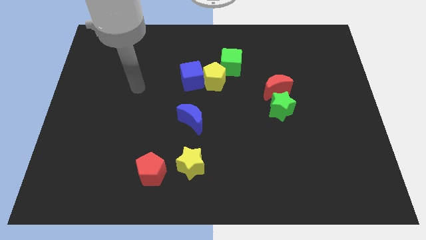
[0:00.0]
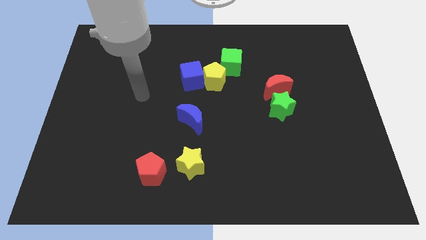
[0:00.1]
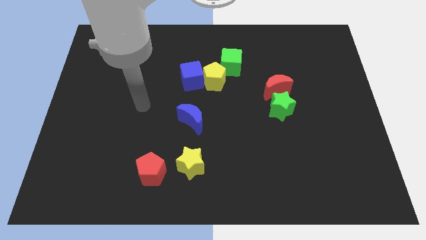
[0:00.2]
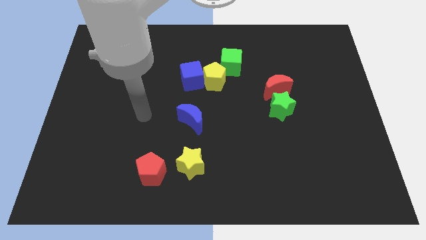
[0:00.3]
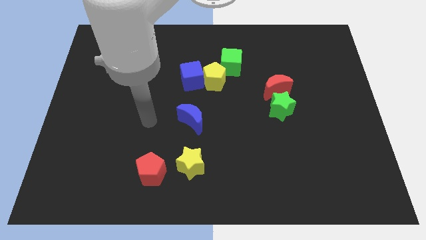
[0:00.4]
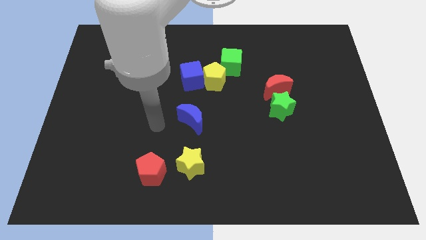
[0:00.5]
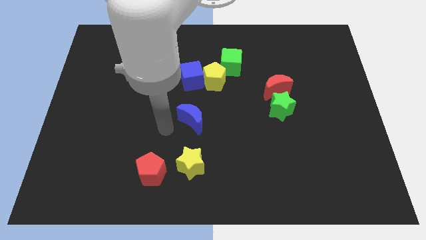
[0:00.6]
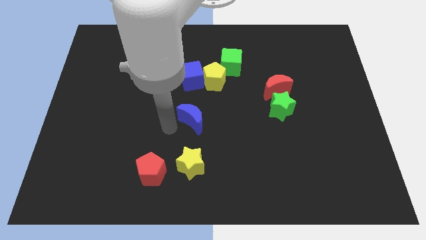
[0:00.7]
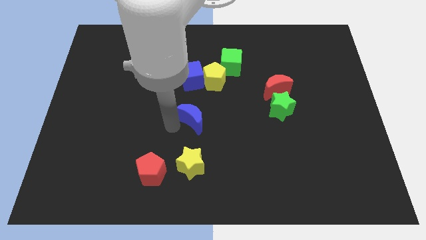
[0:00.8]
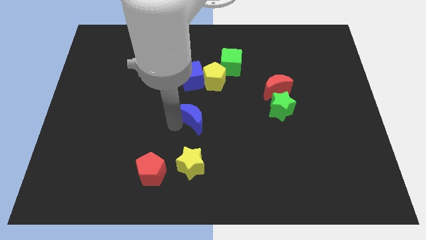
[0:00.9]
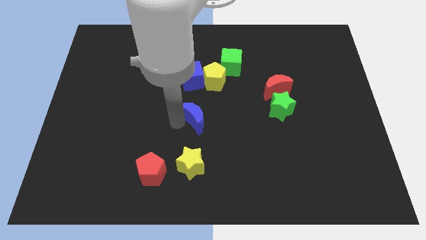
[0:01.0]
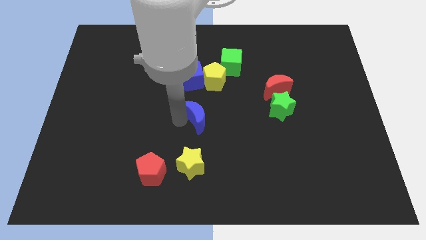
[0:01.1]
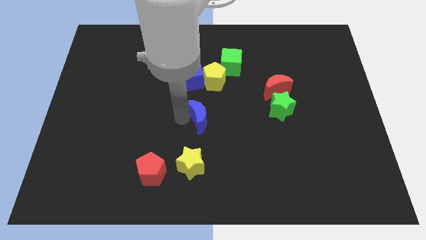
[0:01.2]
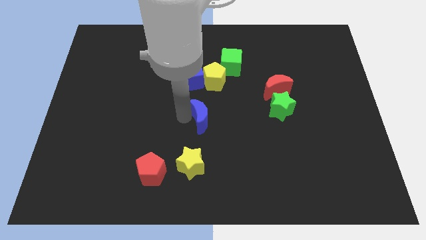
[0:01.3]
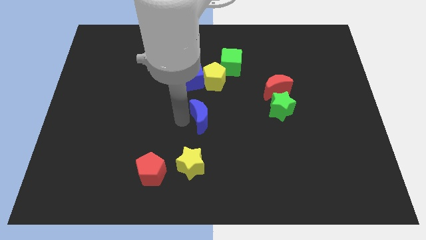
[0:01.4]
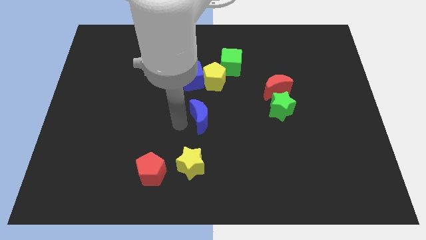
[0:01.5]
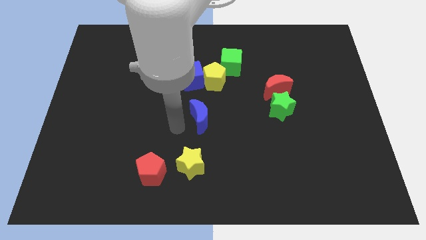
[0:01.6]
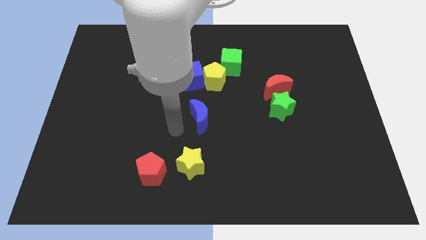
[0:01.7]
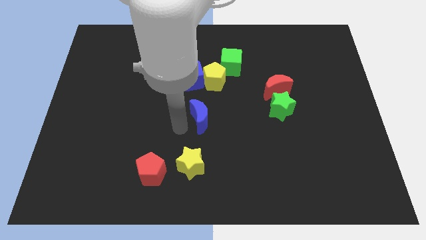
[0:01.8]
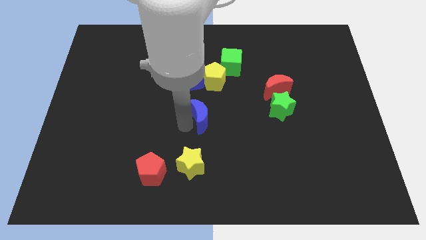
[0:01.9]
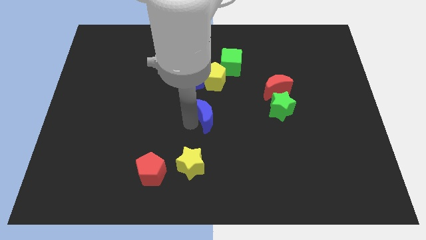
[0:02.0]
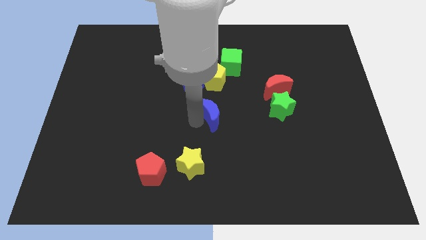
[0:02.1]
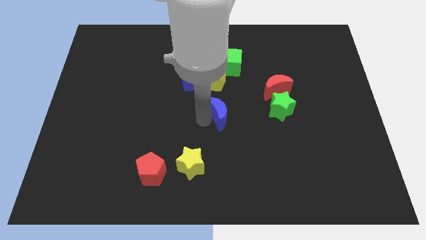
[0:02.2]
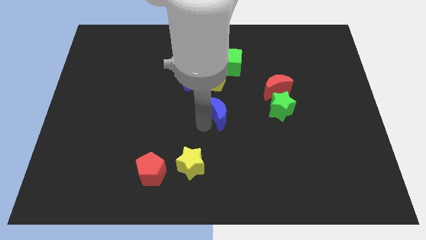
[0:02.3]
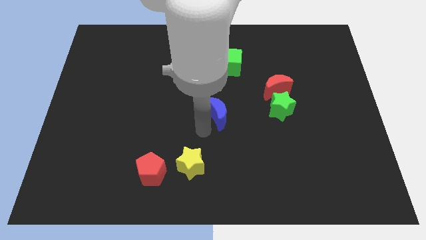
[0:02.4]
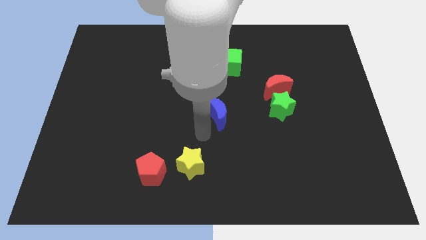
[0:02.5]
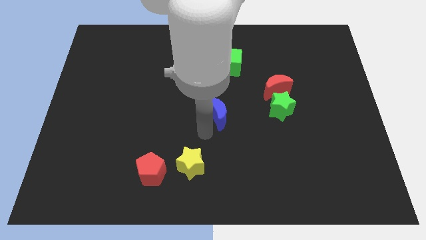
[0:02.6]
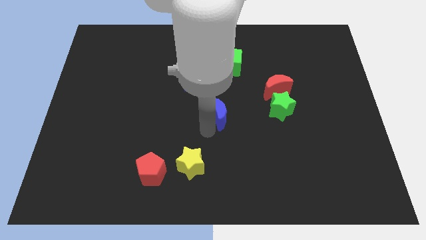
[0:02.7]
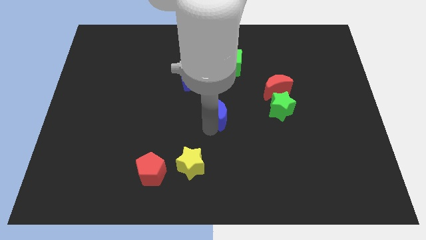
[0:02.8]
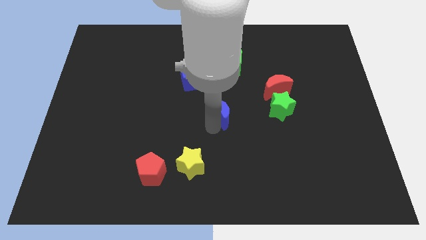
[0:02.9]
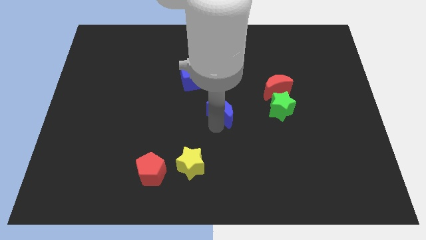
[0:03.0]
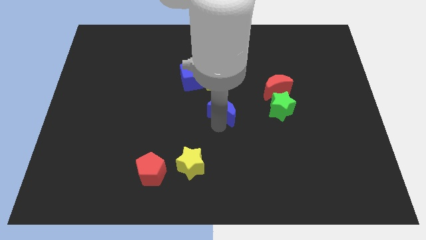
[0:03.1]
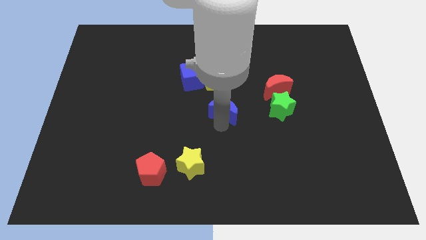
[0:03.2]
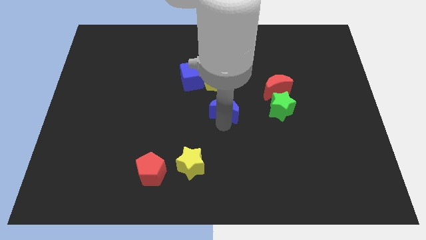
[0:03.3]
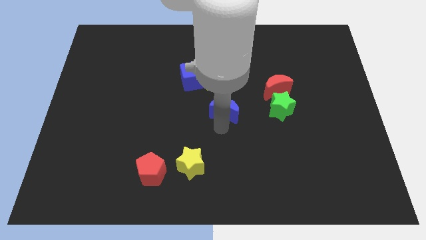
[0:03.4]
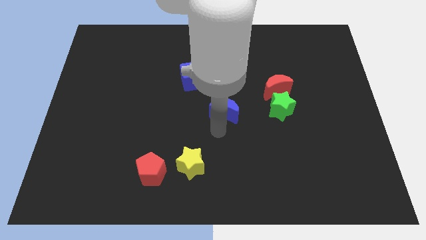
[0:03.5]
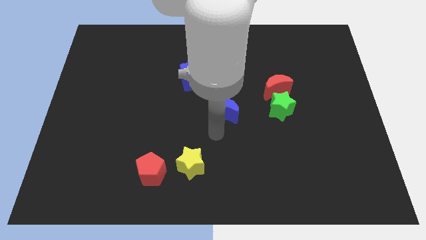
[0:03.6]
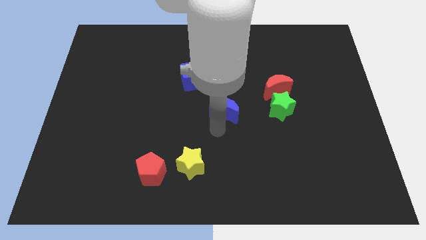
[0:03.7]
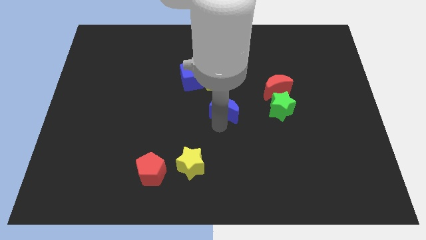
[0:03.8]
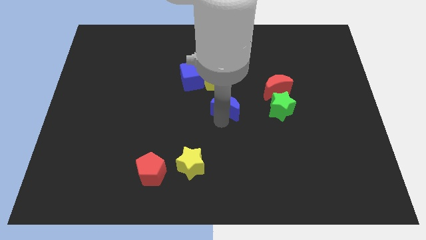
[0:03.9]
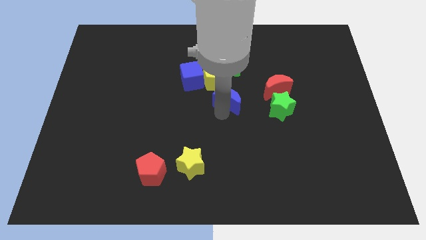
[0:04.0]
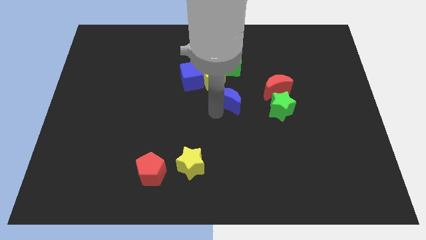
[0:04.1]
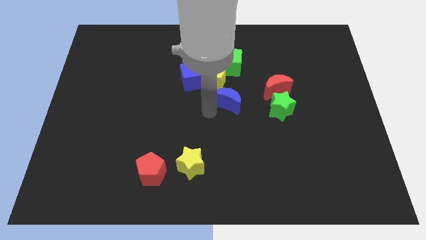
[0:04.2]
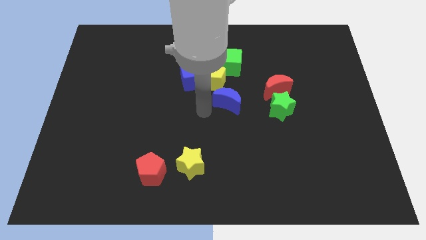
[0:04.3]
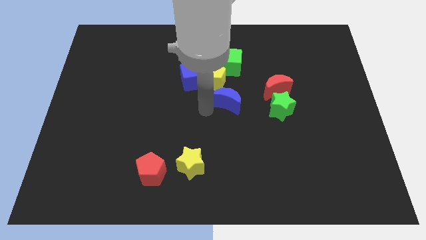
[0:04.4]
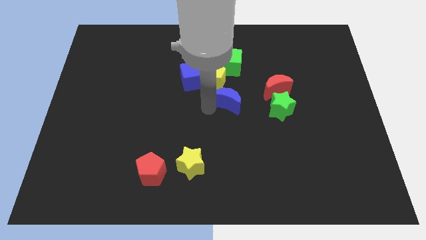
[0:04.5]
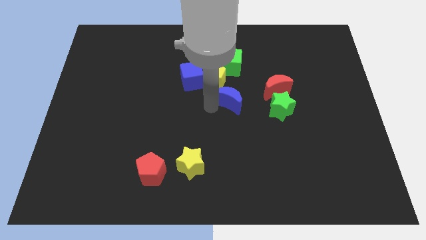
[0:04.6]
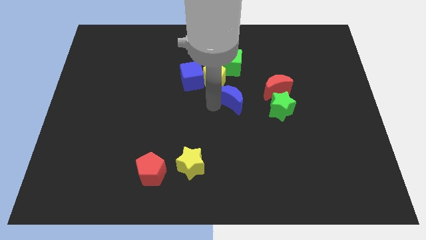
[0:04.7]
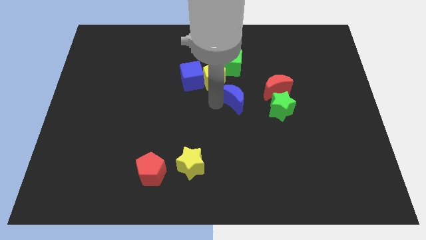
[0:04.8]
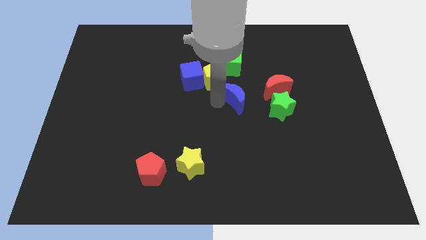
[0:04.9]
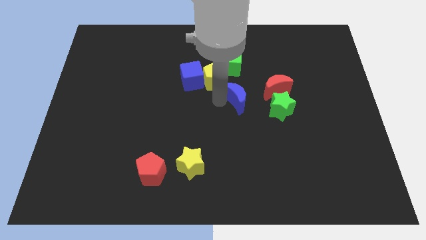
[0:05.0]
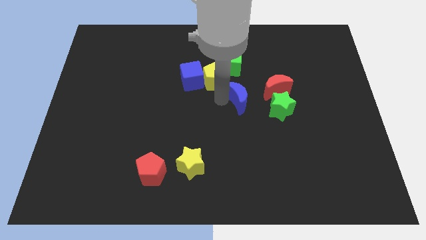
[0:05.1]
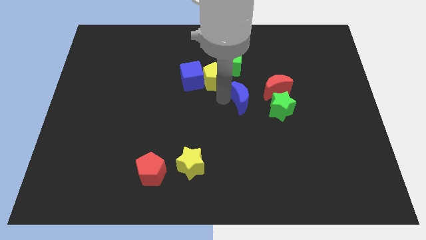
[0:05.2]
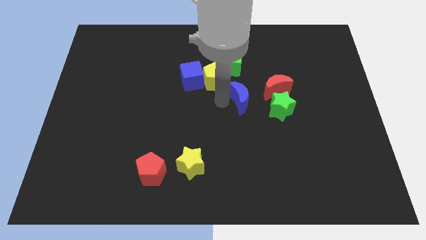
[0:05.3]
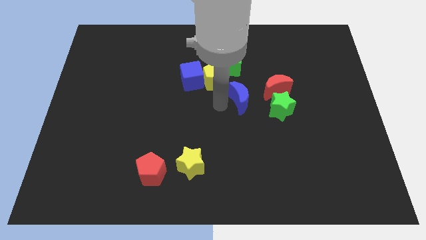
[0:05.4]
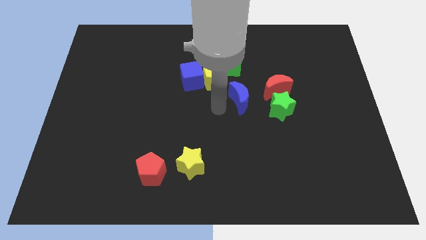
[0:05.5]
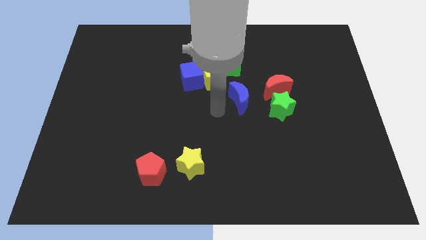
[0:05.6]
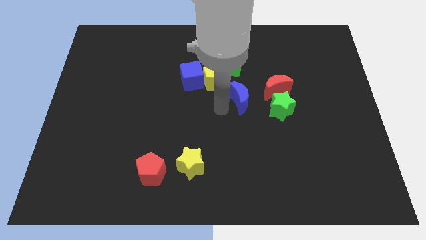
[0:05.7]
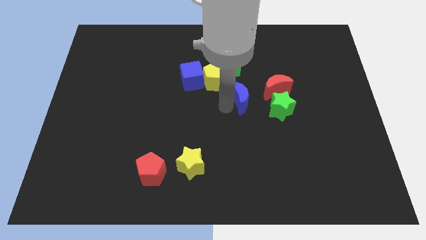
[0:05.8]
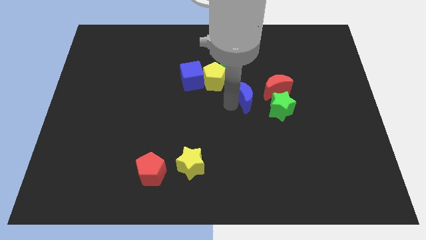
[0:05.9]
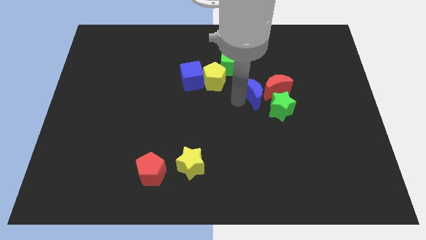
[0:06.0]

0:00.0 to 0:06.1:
move the blue moon towards the red moon
